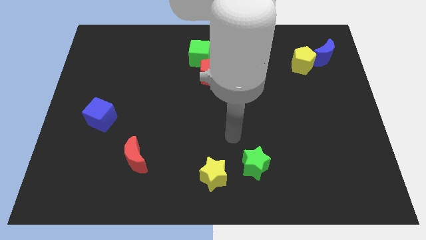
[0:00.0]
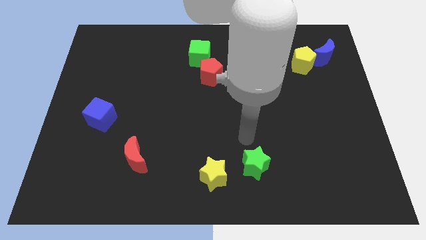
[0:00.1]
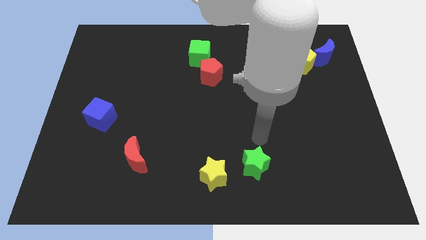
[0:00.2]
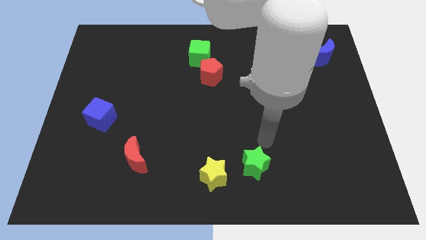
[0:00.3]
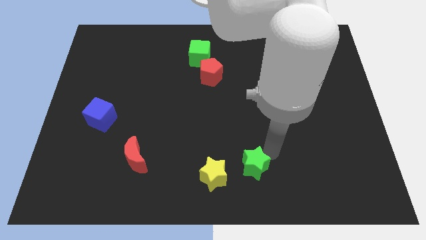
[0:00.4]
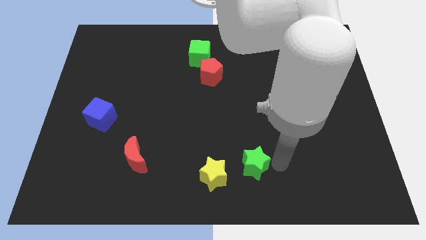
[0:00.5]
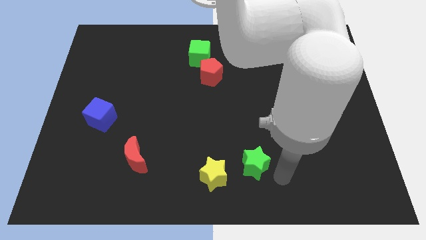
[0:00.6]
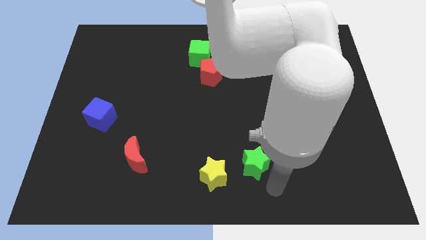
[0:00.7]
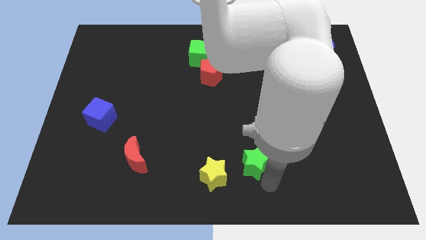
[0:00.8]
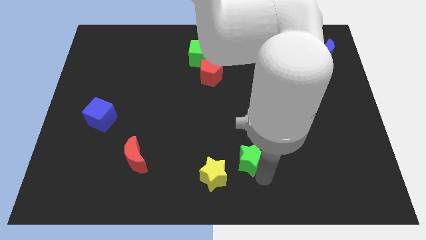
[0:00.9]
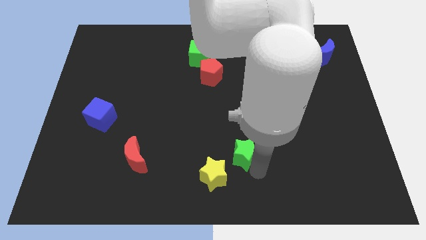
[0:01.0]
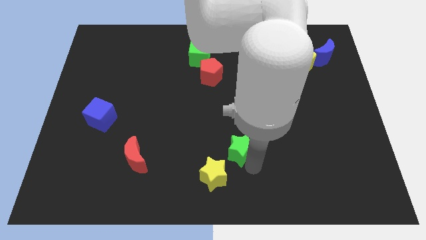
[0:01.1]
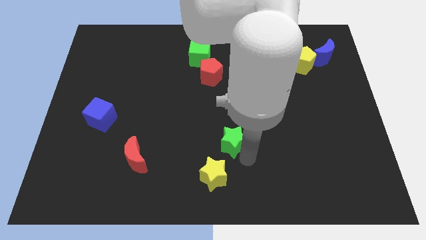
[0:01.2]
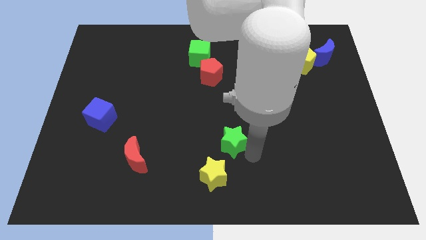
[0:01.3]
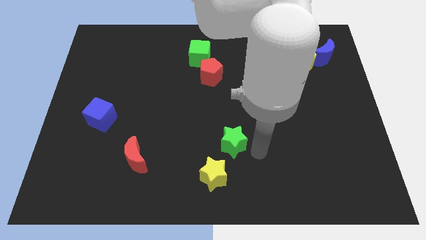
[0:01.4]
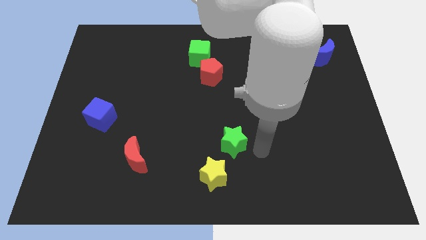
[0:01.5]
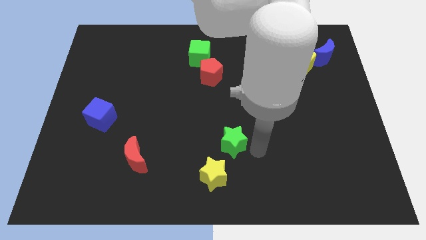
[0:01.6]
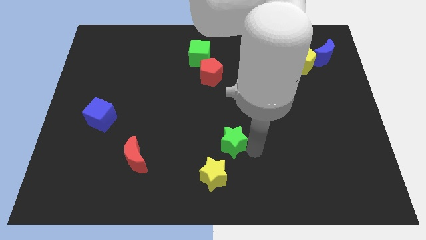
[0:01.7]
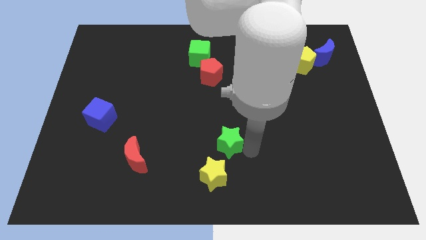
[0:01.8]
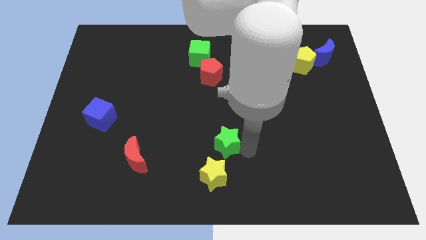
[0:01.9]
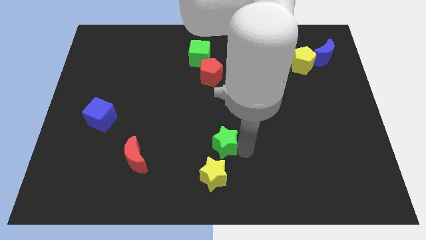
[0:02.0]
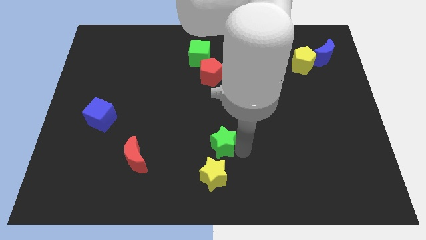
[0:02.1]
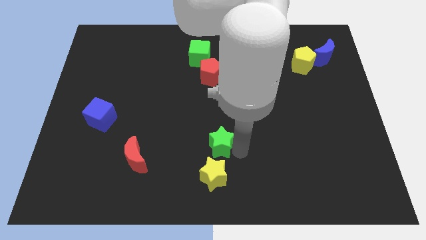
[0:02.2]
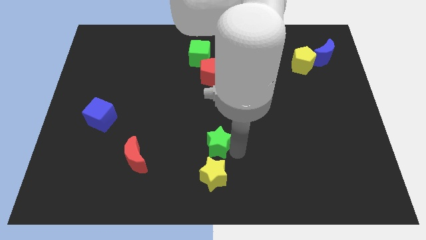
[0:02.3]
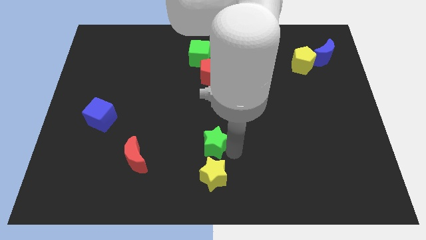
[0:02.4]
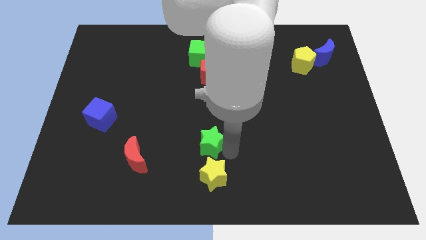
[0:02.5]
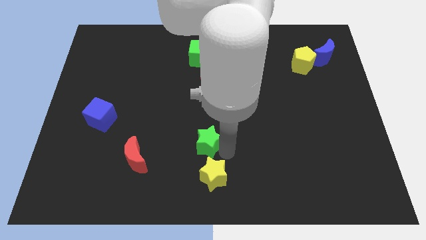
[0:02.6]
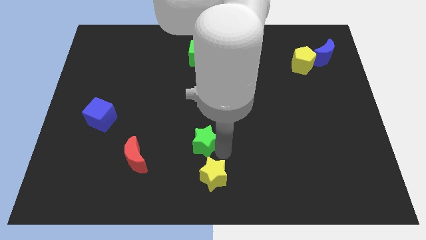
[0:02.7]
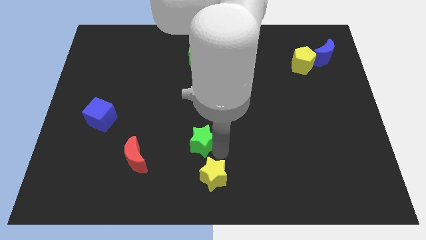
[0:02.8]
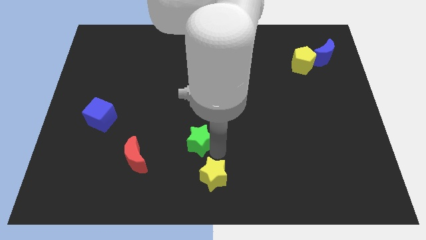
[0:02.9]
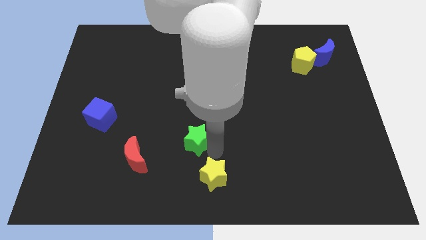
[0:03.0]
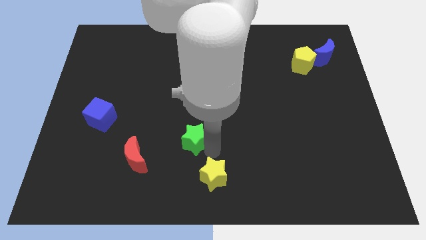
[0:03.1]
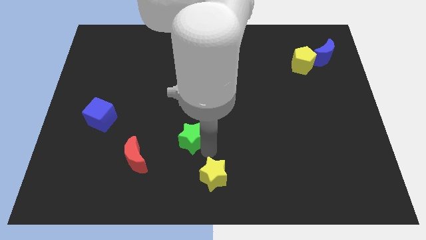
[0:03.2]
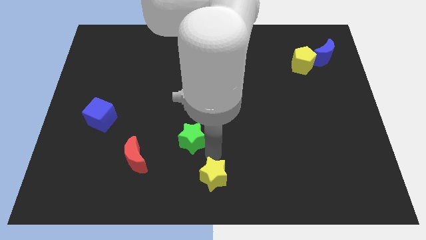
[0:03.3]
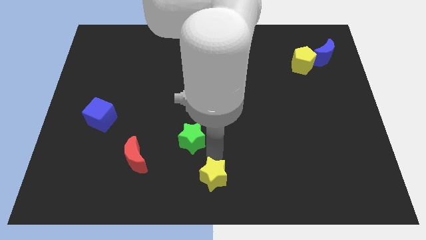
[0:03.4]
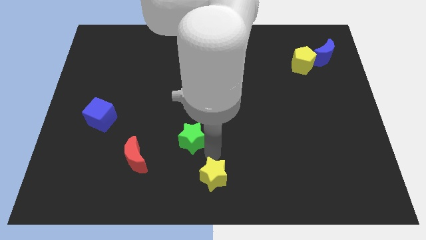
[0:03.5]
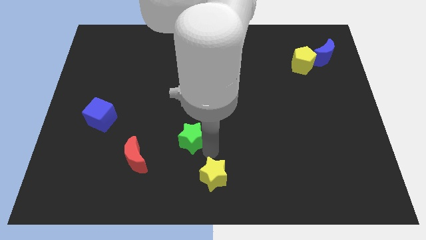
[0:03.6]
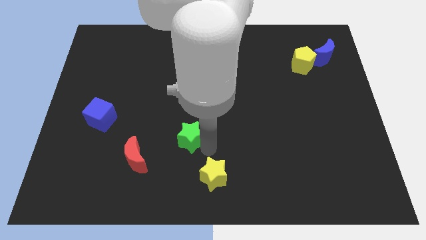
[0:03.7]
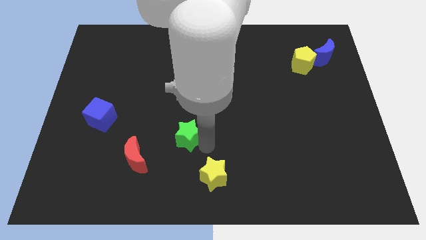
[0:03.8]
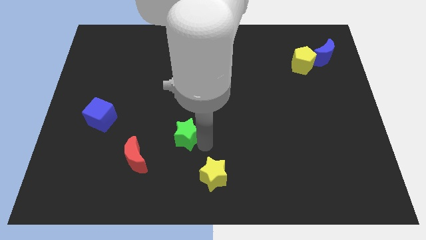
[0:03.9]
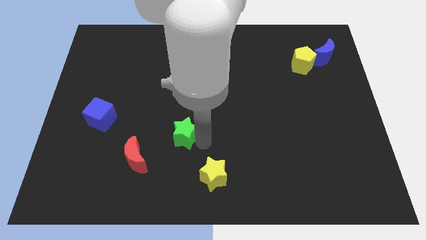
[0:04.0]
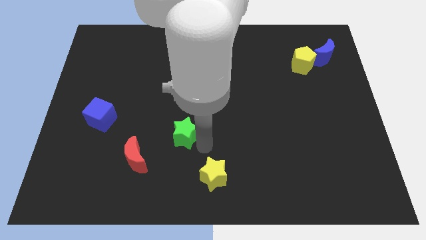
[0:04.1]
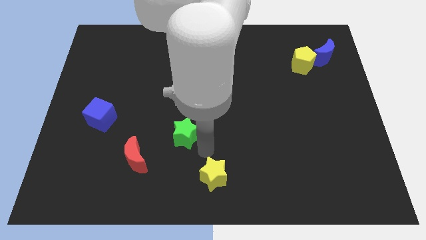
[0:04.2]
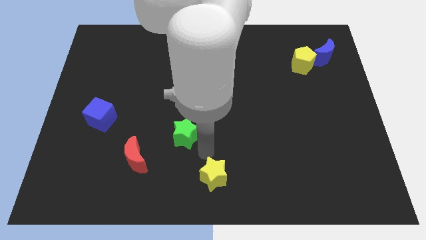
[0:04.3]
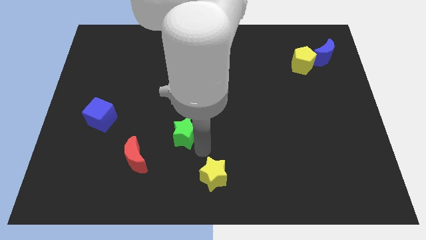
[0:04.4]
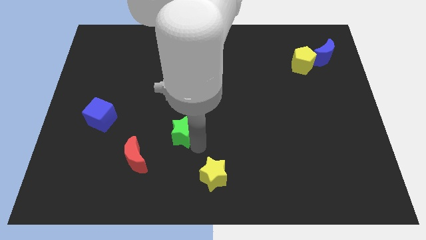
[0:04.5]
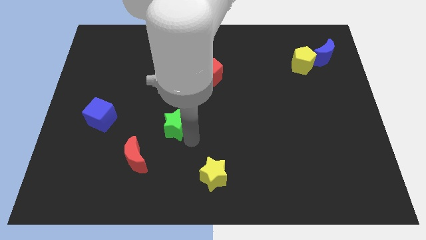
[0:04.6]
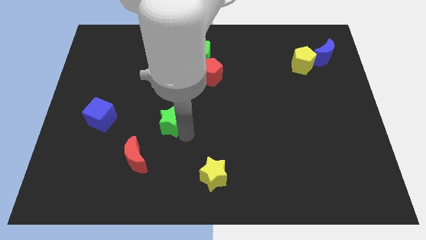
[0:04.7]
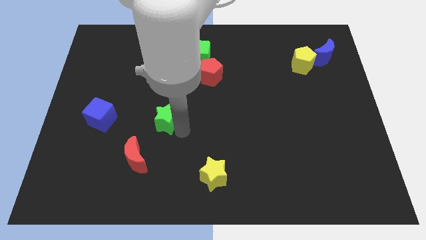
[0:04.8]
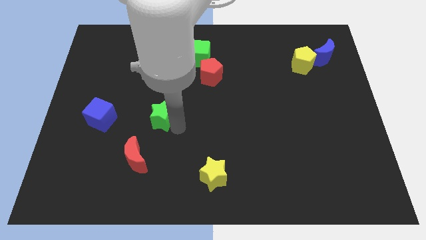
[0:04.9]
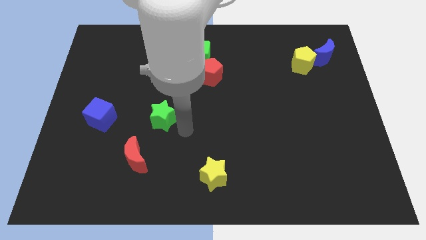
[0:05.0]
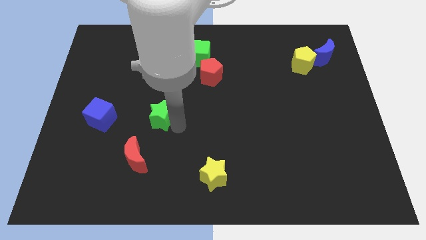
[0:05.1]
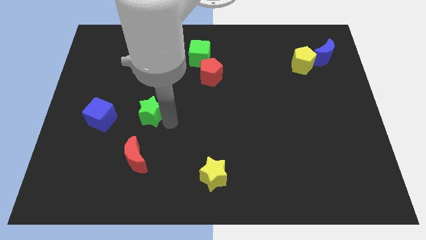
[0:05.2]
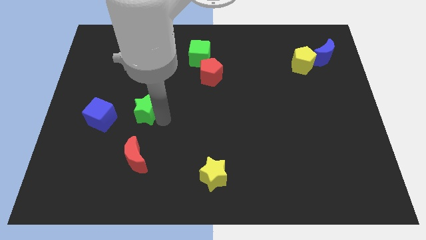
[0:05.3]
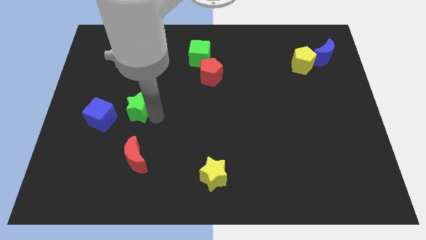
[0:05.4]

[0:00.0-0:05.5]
slide the green star diagonally up and to the right of the blue cube

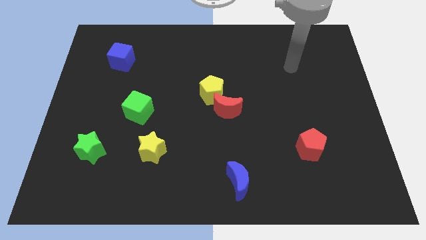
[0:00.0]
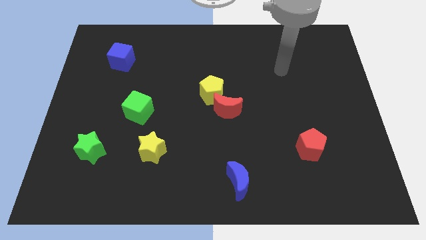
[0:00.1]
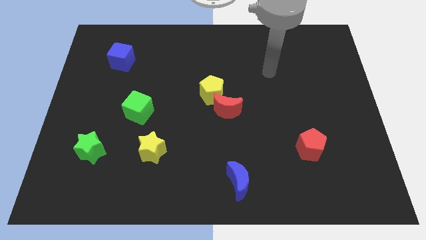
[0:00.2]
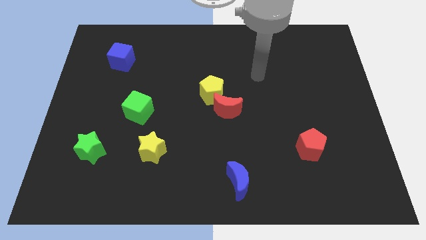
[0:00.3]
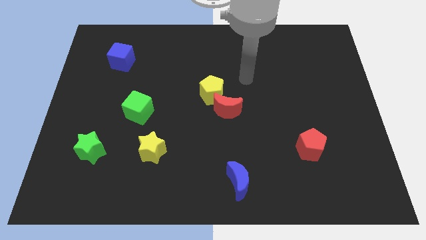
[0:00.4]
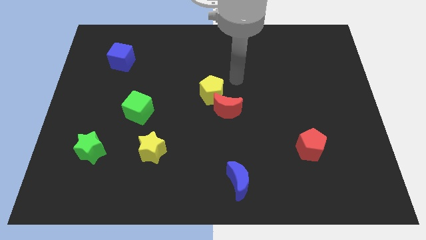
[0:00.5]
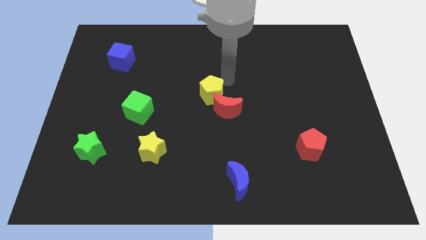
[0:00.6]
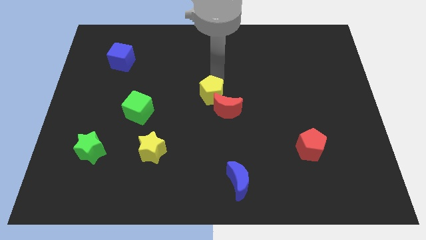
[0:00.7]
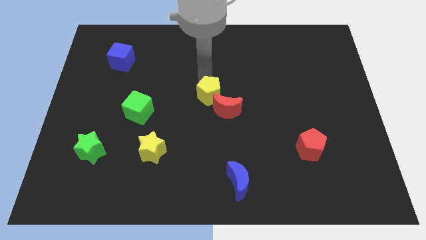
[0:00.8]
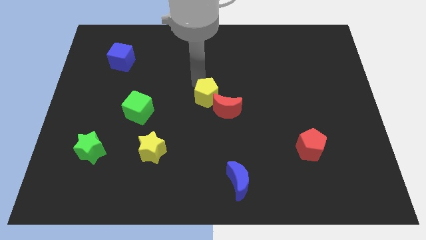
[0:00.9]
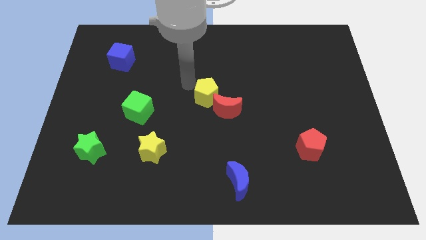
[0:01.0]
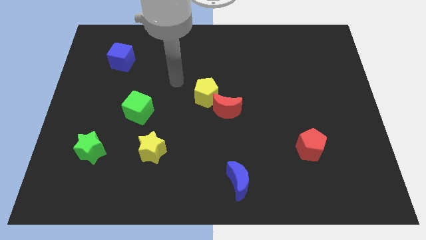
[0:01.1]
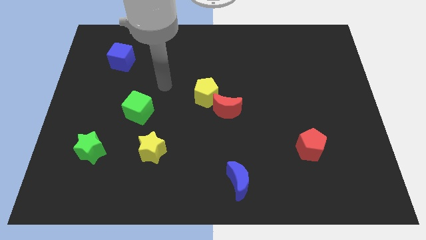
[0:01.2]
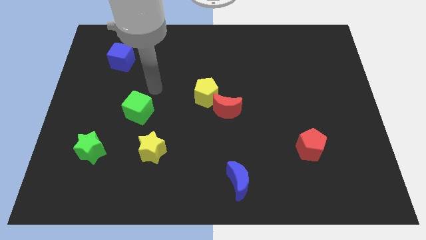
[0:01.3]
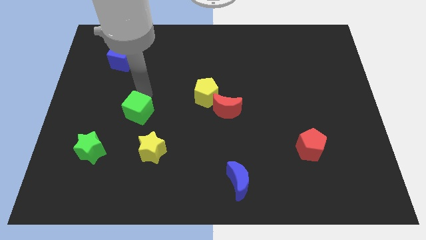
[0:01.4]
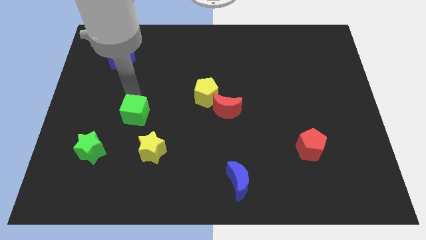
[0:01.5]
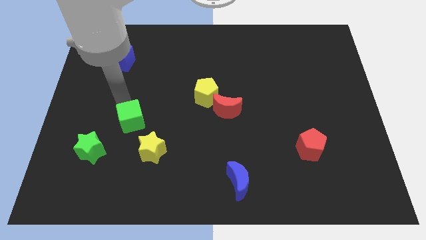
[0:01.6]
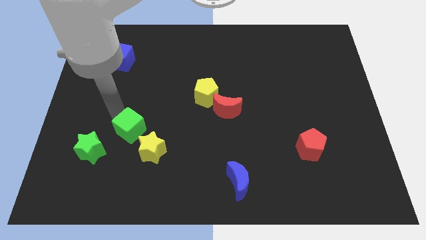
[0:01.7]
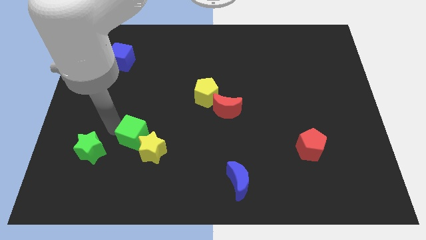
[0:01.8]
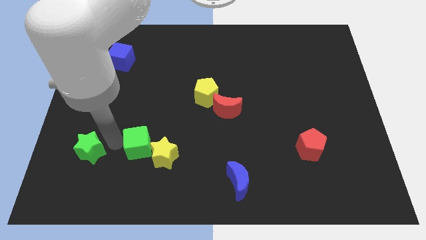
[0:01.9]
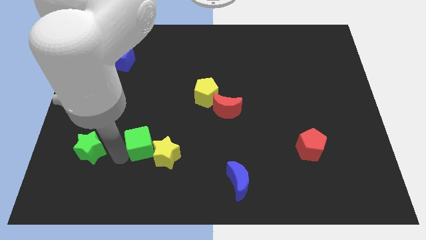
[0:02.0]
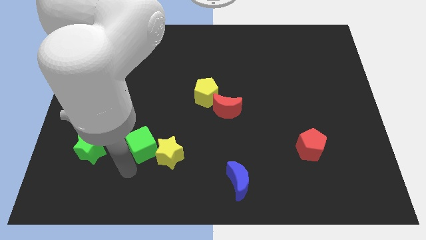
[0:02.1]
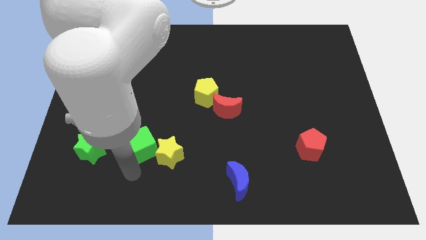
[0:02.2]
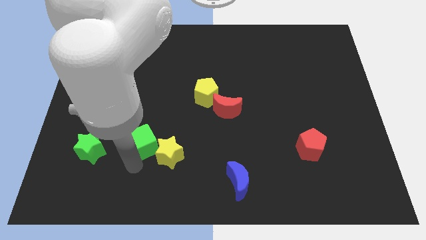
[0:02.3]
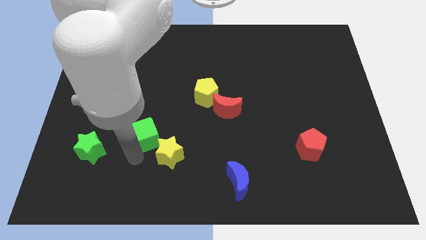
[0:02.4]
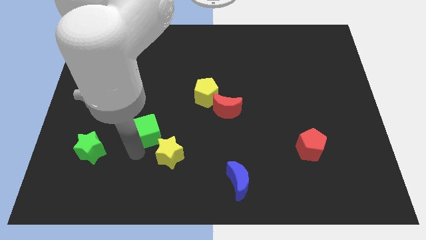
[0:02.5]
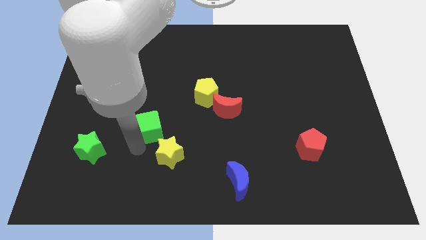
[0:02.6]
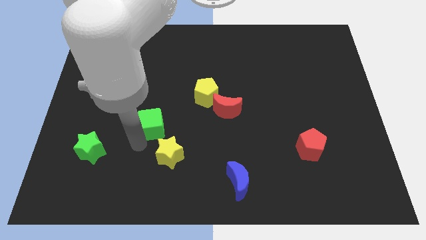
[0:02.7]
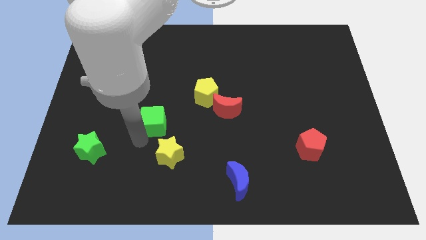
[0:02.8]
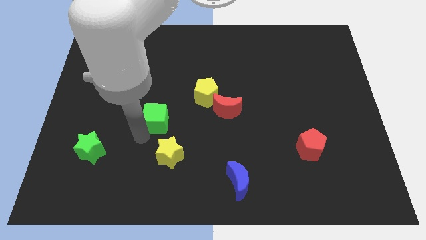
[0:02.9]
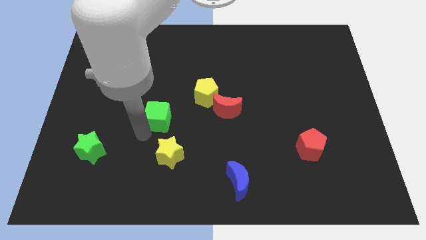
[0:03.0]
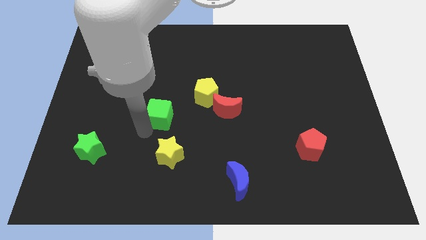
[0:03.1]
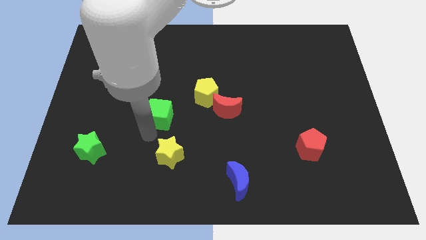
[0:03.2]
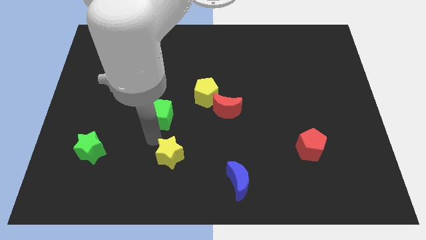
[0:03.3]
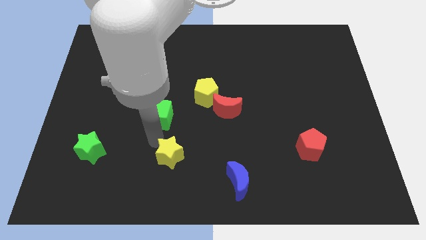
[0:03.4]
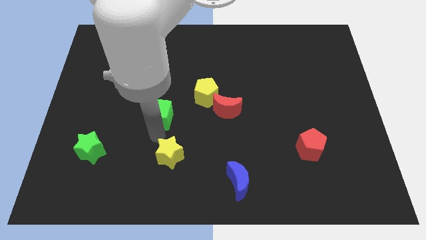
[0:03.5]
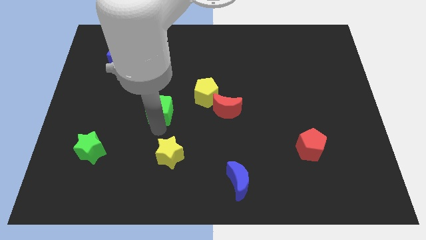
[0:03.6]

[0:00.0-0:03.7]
put the green cube just left of the yellow pentagon
